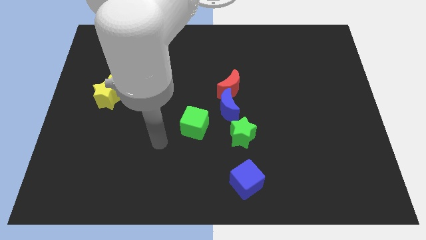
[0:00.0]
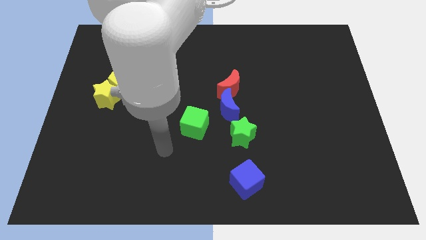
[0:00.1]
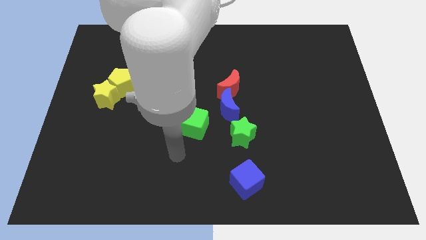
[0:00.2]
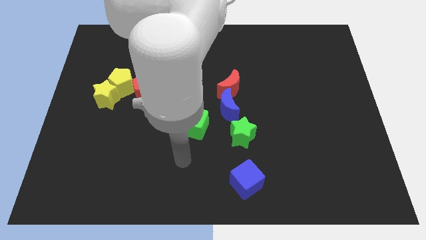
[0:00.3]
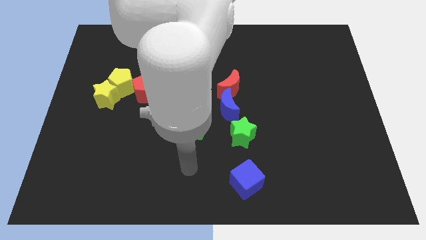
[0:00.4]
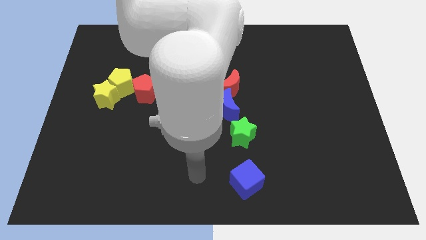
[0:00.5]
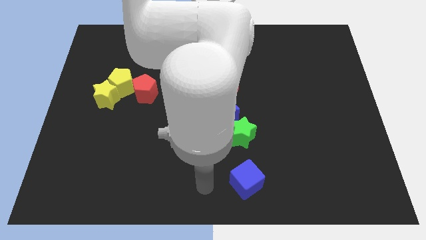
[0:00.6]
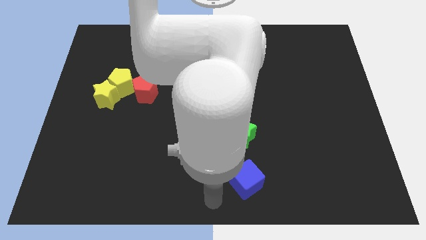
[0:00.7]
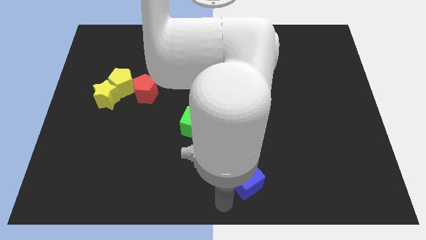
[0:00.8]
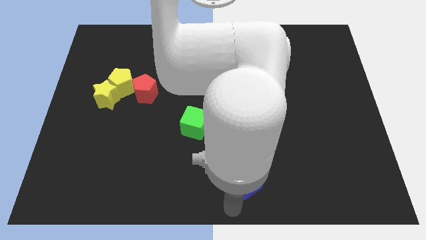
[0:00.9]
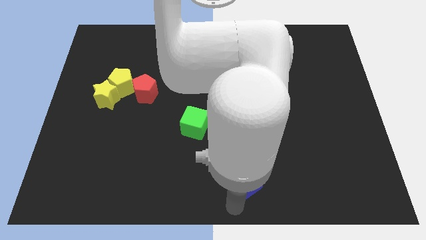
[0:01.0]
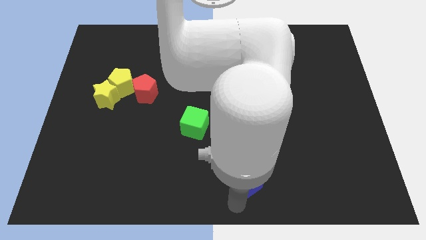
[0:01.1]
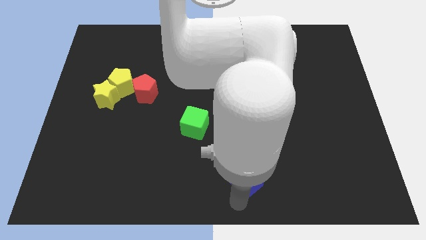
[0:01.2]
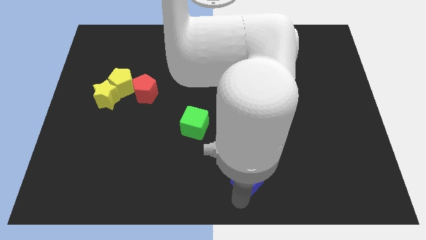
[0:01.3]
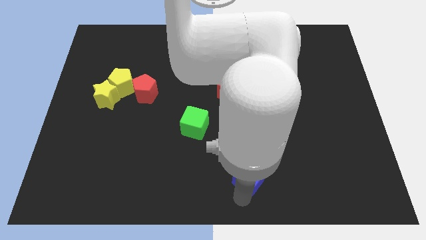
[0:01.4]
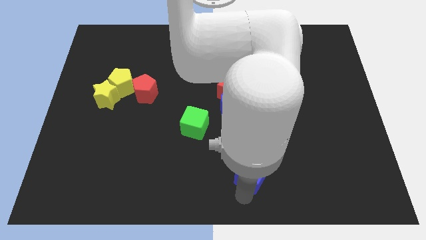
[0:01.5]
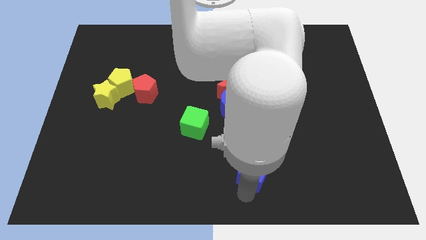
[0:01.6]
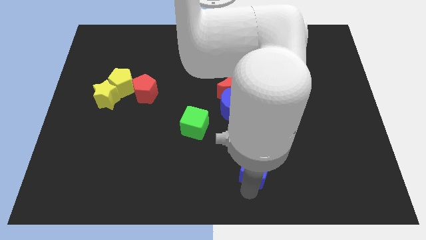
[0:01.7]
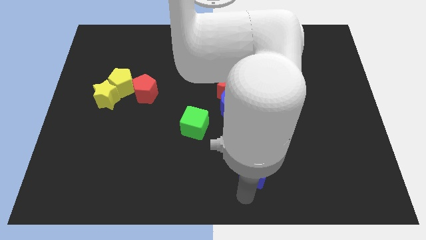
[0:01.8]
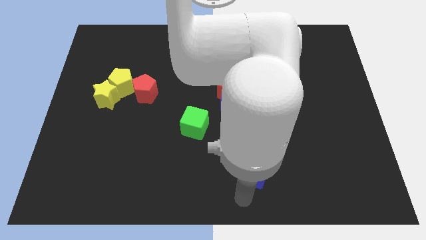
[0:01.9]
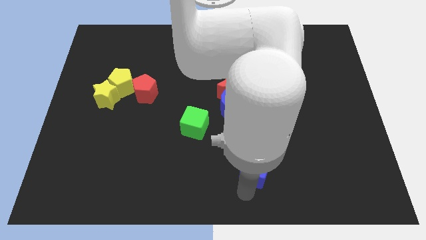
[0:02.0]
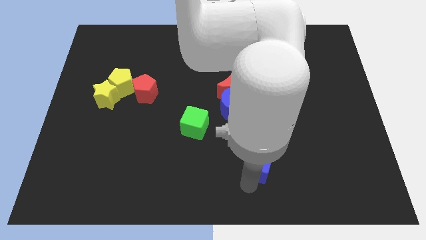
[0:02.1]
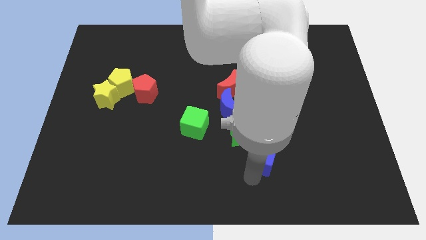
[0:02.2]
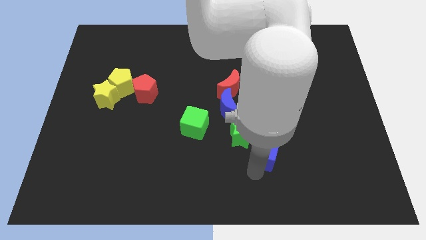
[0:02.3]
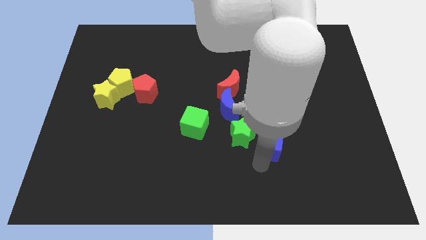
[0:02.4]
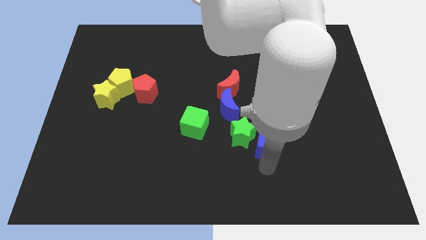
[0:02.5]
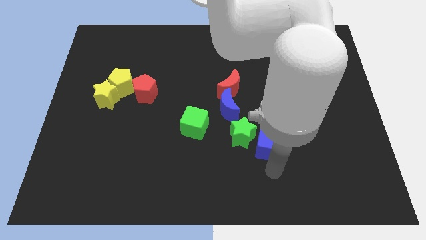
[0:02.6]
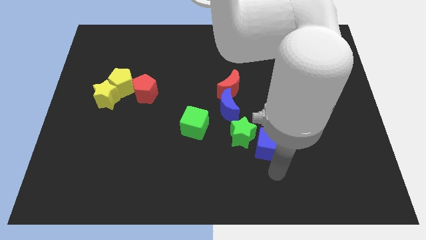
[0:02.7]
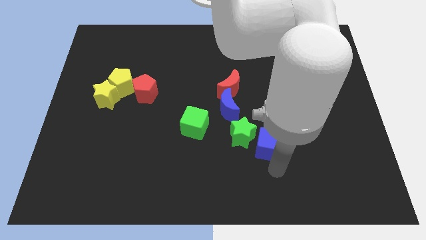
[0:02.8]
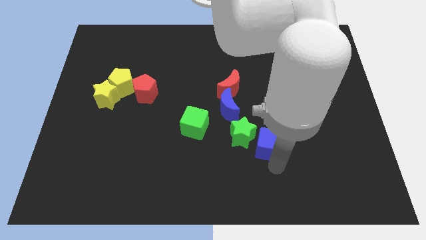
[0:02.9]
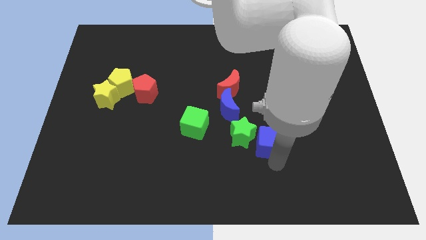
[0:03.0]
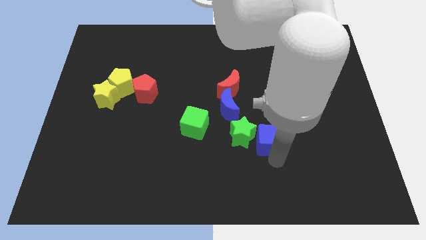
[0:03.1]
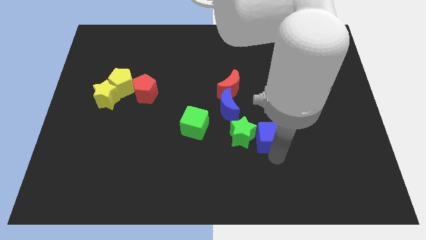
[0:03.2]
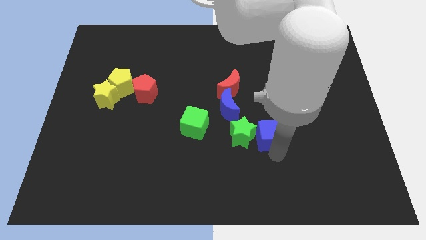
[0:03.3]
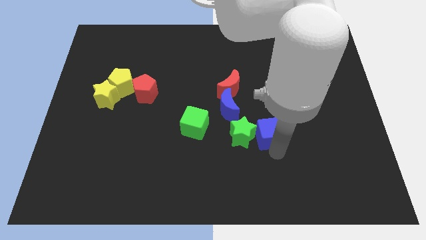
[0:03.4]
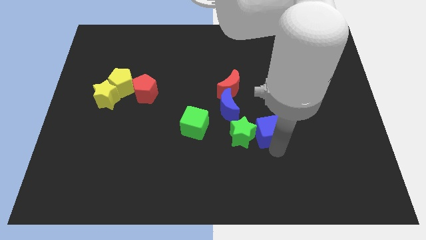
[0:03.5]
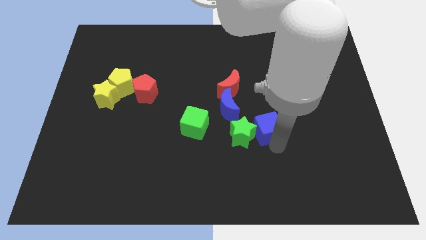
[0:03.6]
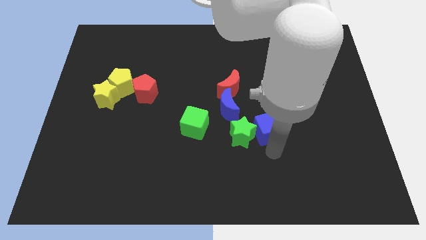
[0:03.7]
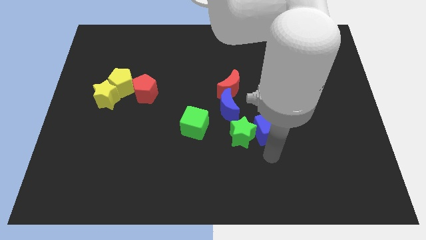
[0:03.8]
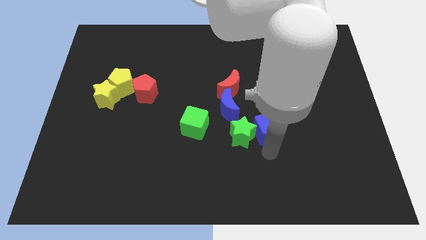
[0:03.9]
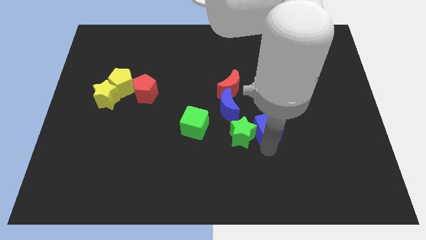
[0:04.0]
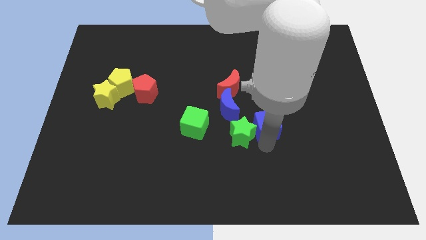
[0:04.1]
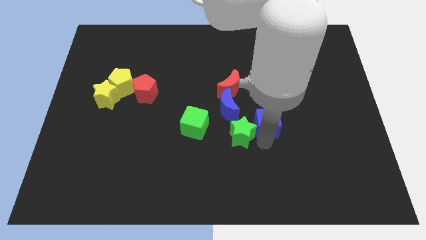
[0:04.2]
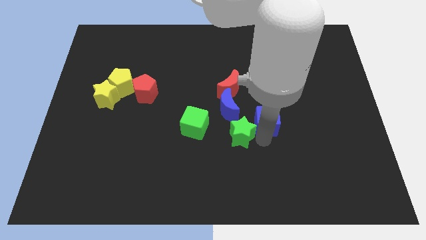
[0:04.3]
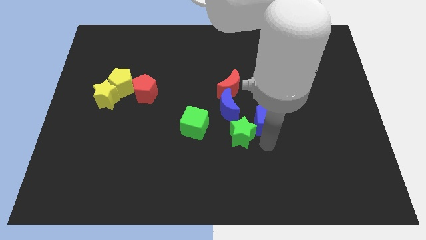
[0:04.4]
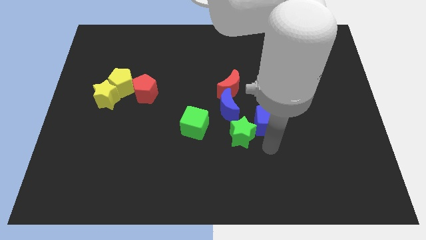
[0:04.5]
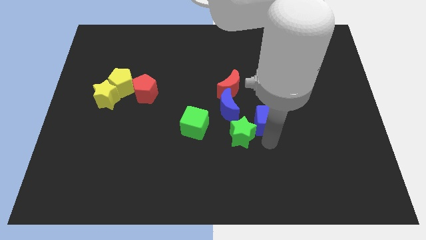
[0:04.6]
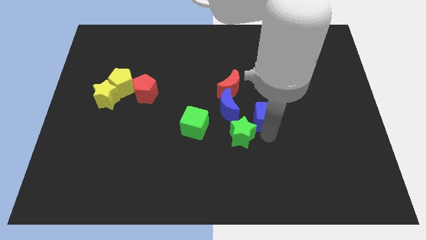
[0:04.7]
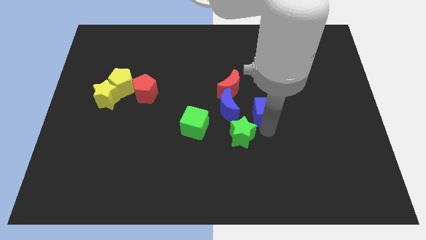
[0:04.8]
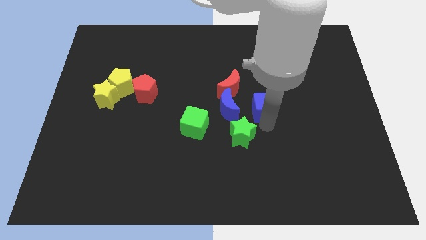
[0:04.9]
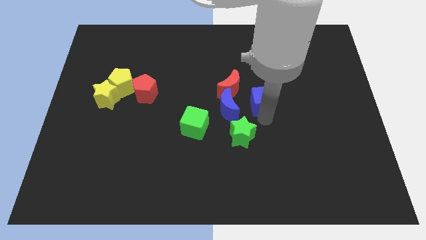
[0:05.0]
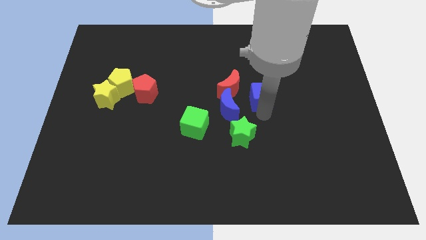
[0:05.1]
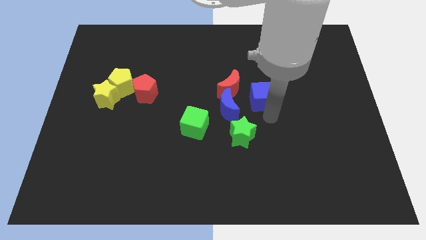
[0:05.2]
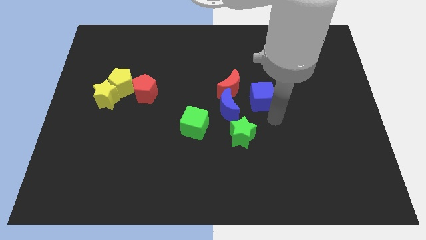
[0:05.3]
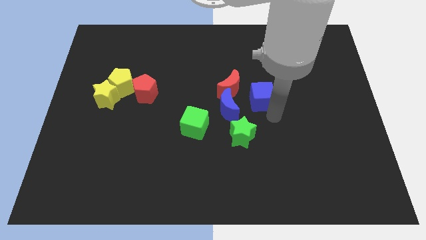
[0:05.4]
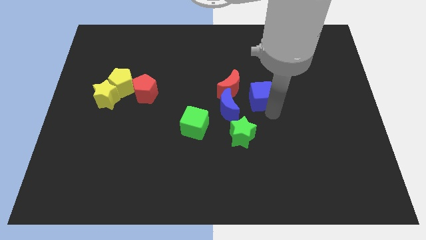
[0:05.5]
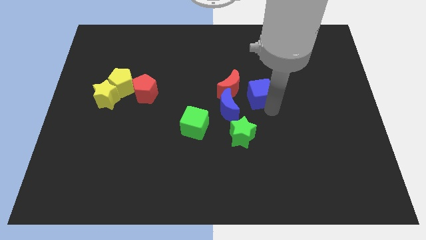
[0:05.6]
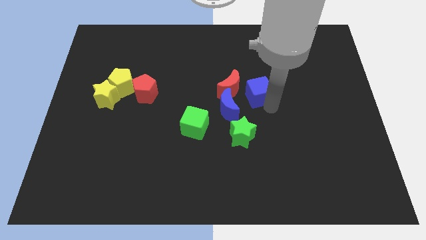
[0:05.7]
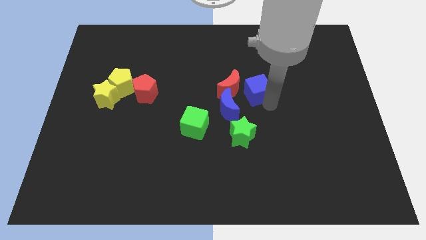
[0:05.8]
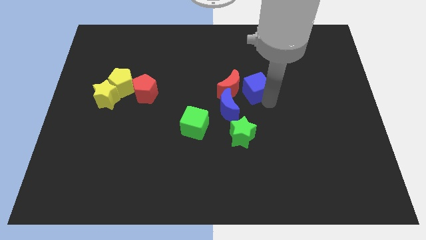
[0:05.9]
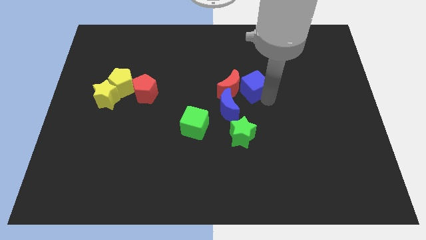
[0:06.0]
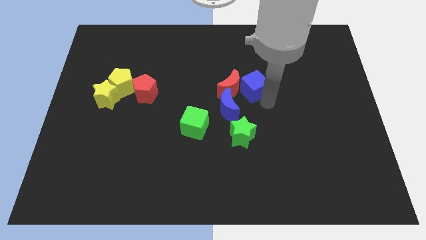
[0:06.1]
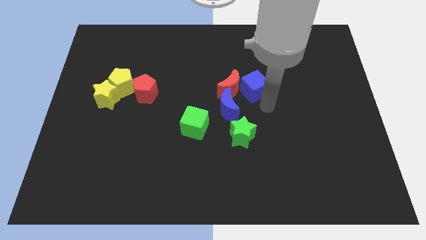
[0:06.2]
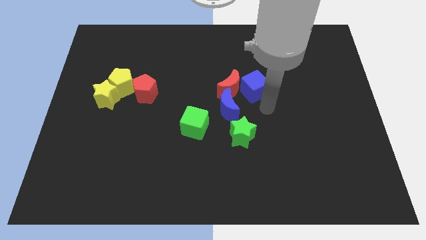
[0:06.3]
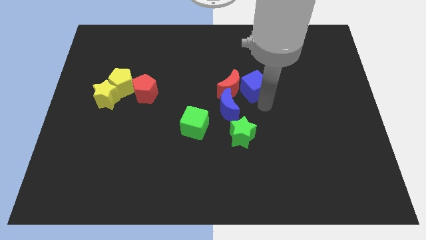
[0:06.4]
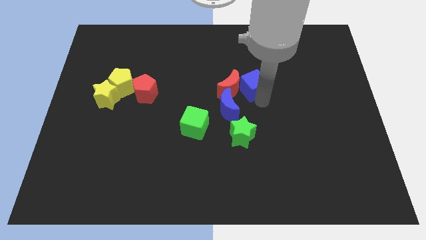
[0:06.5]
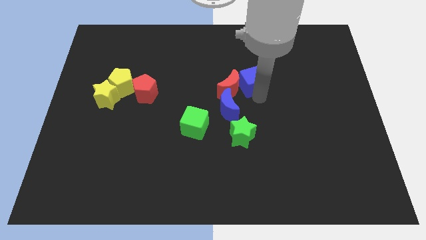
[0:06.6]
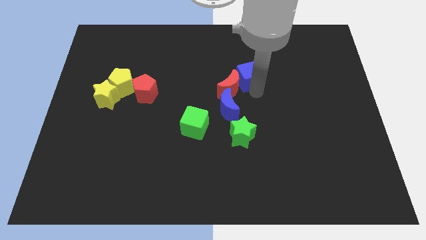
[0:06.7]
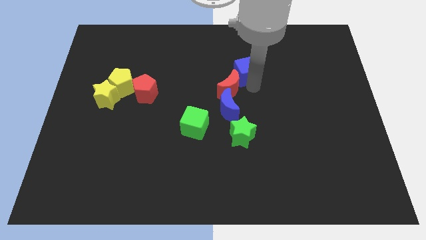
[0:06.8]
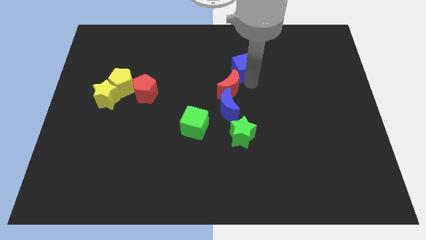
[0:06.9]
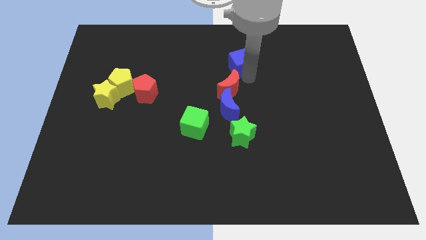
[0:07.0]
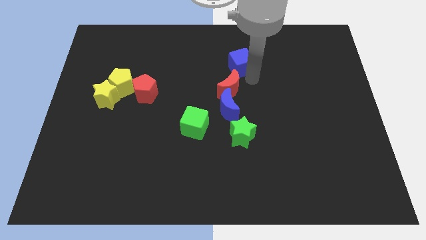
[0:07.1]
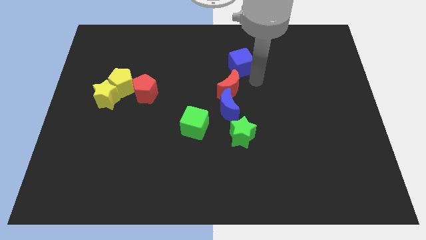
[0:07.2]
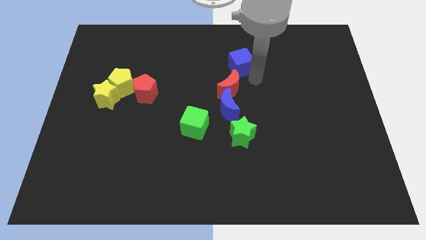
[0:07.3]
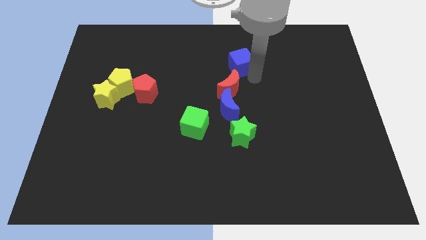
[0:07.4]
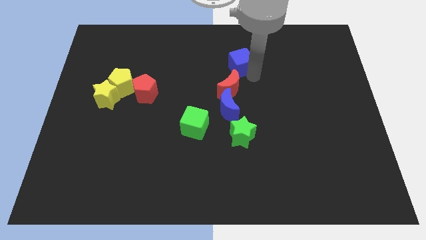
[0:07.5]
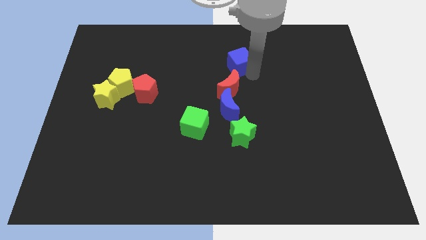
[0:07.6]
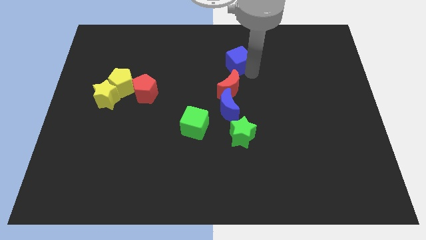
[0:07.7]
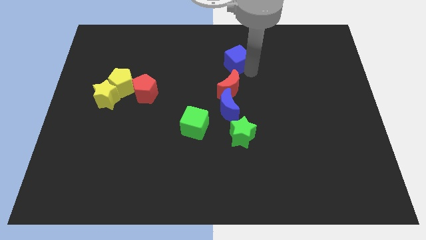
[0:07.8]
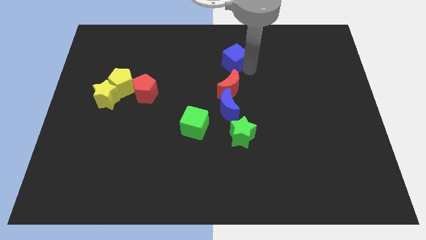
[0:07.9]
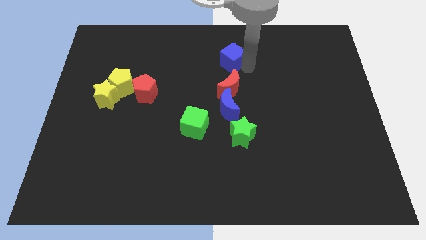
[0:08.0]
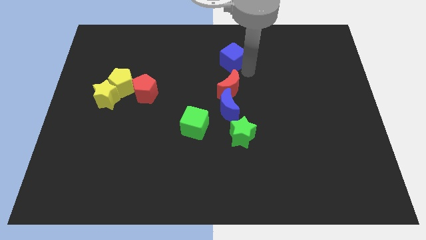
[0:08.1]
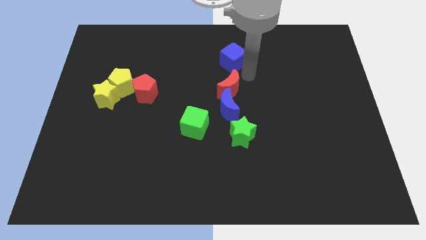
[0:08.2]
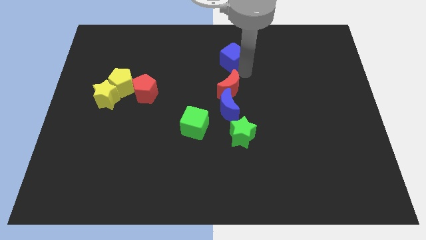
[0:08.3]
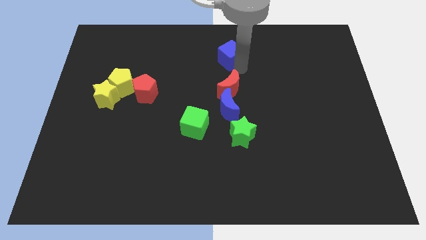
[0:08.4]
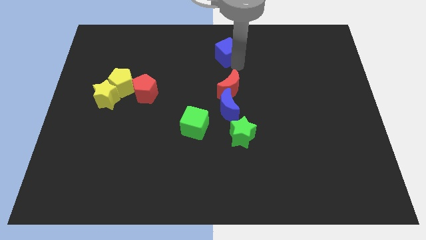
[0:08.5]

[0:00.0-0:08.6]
move the blue cube to the top
